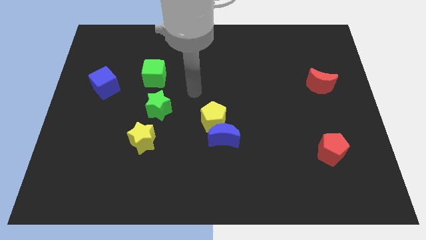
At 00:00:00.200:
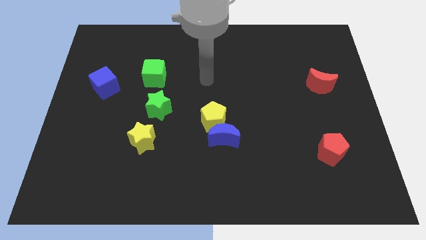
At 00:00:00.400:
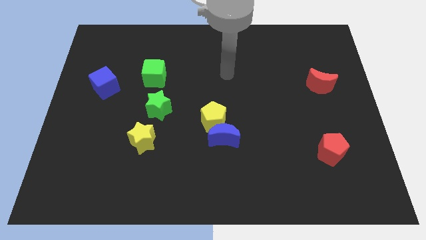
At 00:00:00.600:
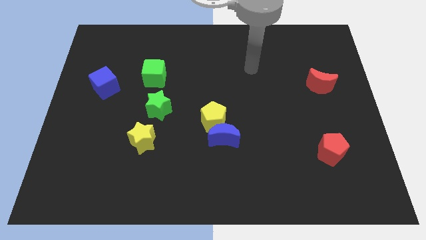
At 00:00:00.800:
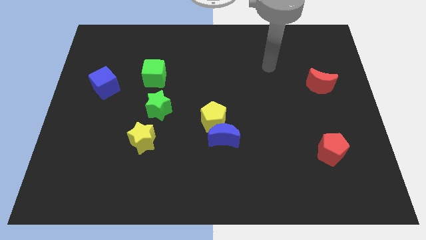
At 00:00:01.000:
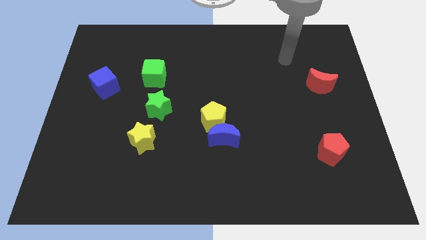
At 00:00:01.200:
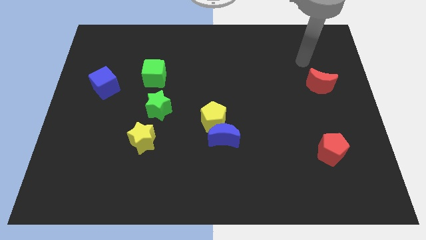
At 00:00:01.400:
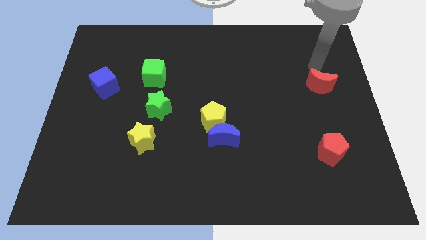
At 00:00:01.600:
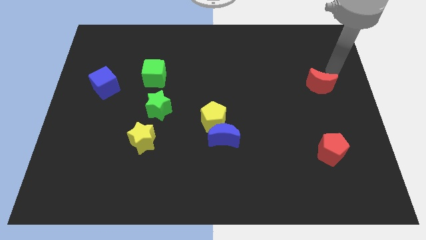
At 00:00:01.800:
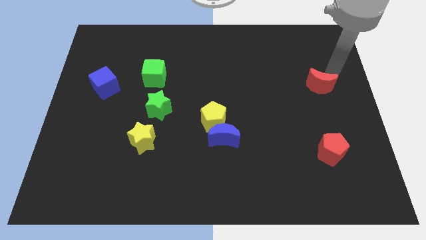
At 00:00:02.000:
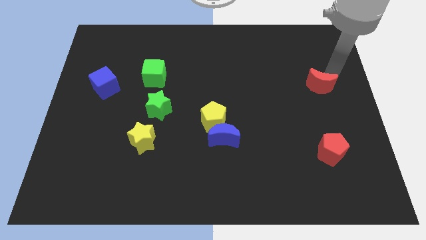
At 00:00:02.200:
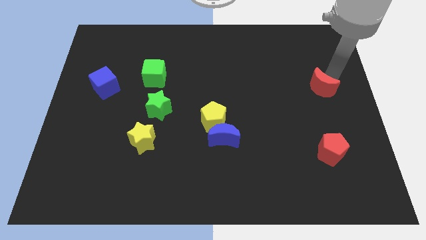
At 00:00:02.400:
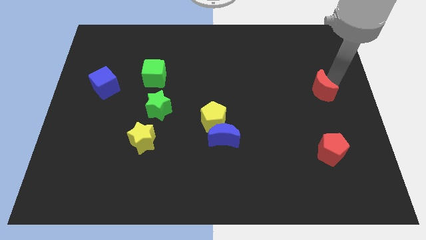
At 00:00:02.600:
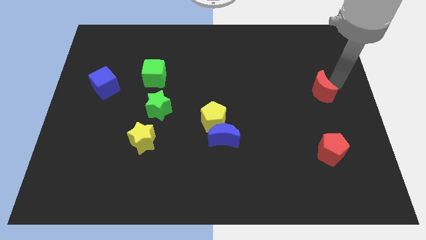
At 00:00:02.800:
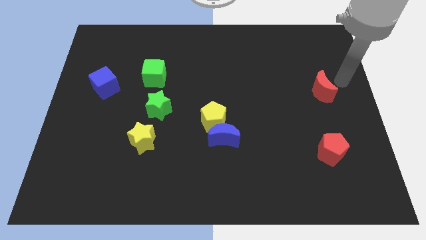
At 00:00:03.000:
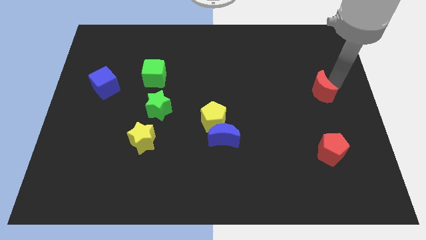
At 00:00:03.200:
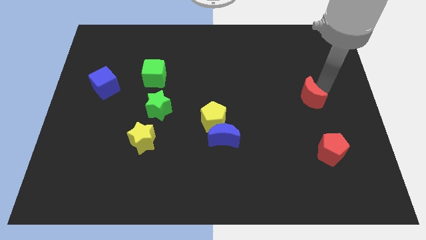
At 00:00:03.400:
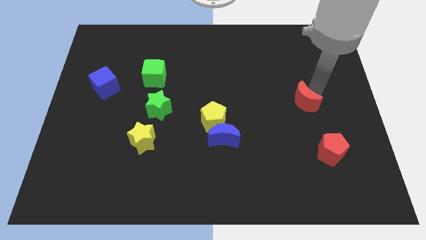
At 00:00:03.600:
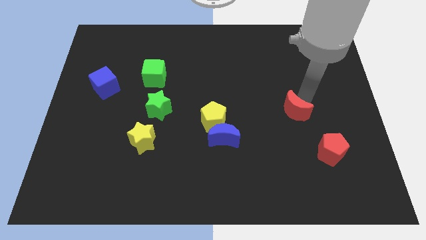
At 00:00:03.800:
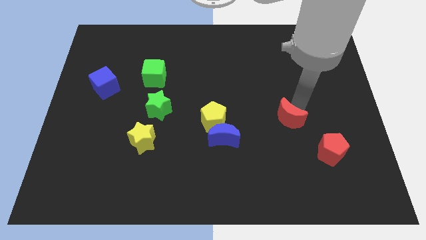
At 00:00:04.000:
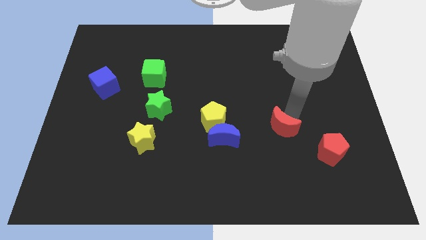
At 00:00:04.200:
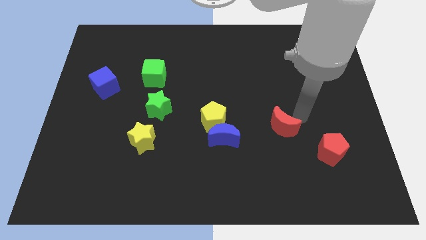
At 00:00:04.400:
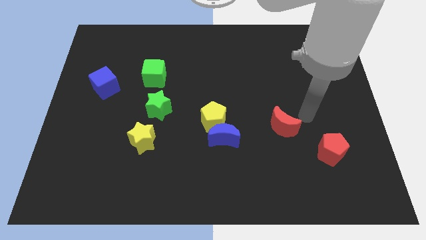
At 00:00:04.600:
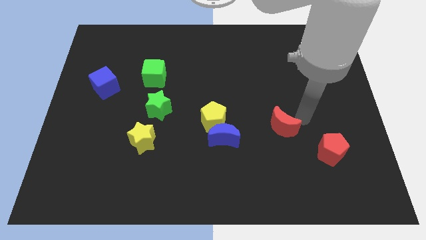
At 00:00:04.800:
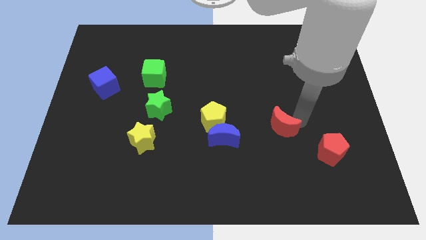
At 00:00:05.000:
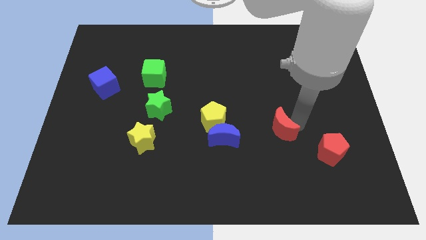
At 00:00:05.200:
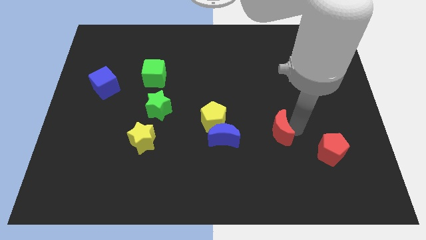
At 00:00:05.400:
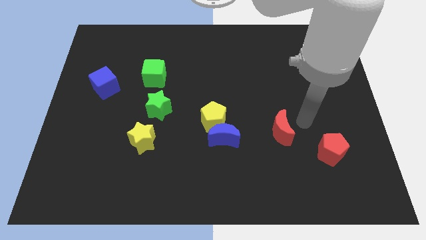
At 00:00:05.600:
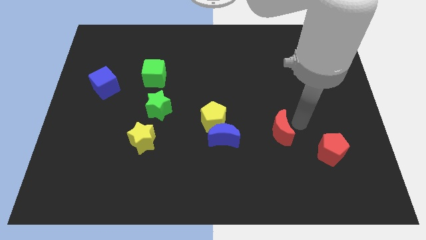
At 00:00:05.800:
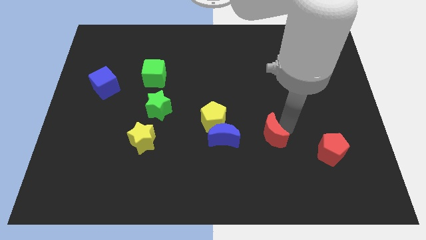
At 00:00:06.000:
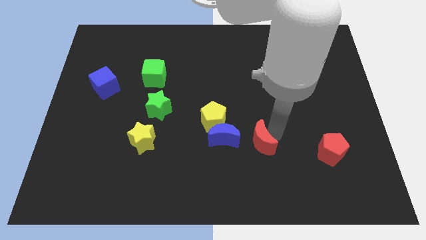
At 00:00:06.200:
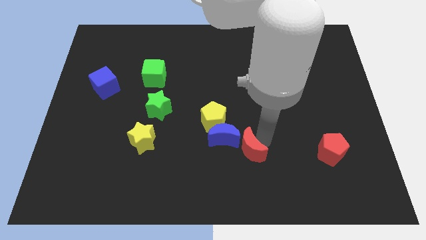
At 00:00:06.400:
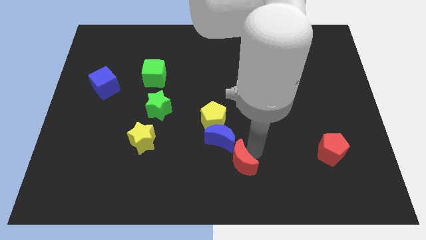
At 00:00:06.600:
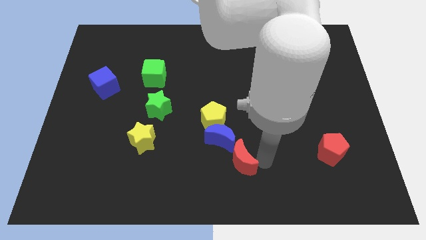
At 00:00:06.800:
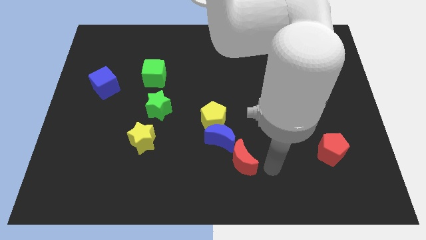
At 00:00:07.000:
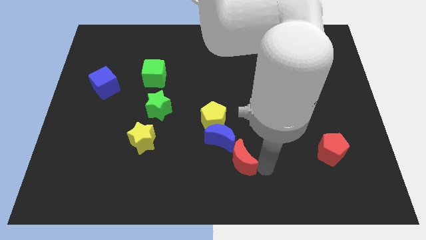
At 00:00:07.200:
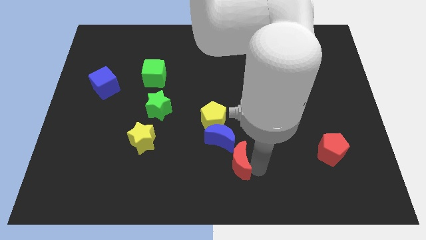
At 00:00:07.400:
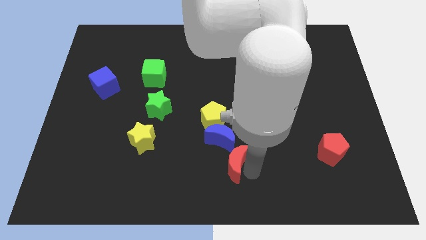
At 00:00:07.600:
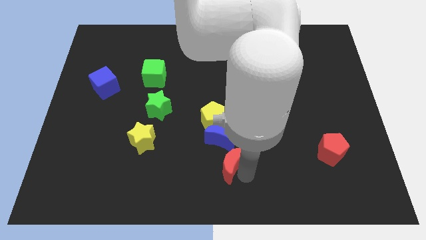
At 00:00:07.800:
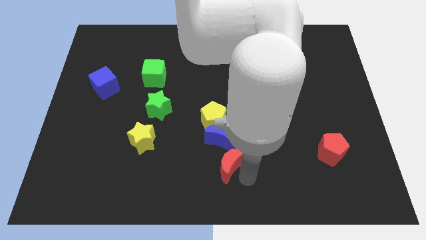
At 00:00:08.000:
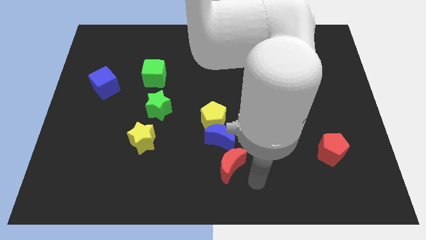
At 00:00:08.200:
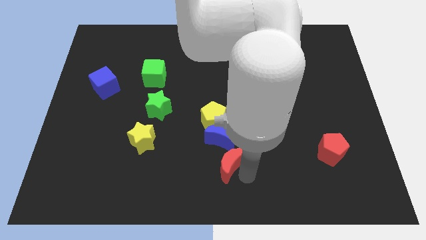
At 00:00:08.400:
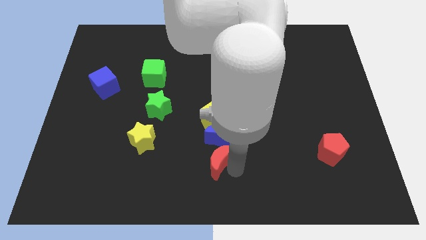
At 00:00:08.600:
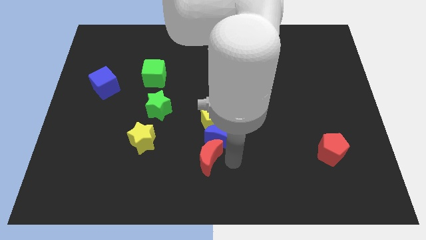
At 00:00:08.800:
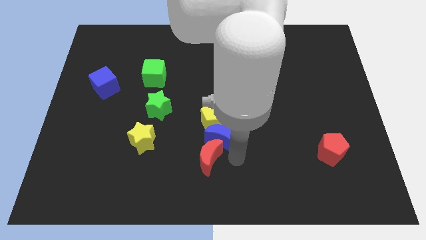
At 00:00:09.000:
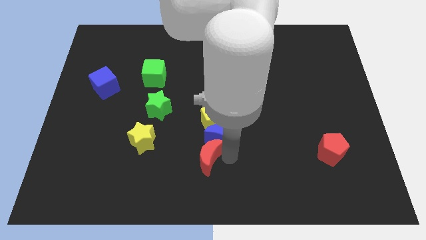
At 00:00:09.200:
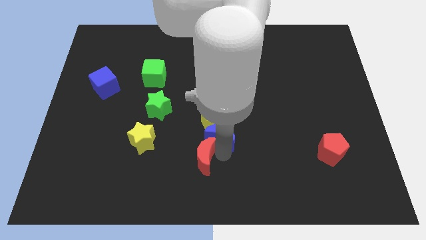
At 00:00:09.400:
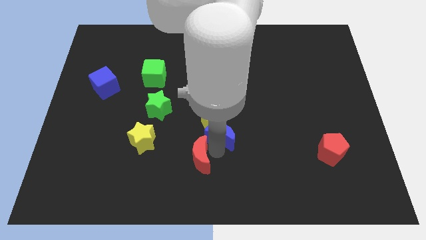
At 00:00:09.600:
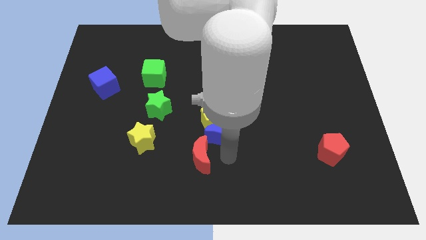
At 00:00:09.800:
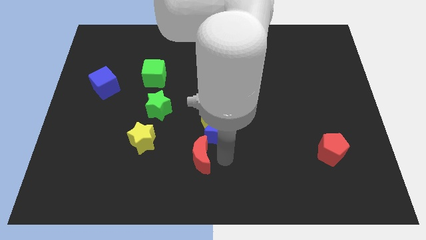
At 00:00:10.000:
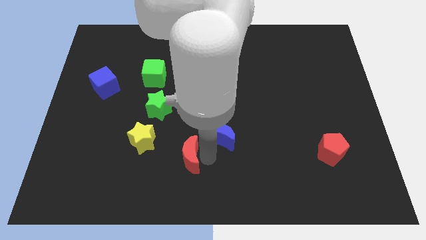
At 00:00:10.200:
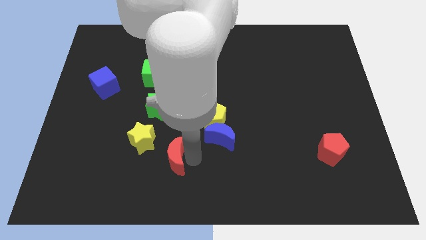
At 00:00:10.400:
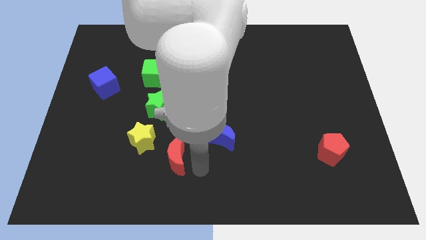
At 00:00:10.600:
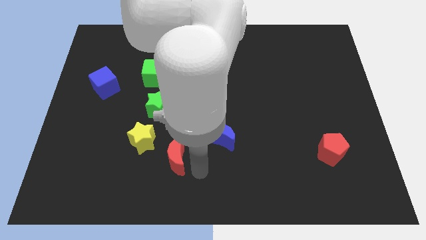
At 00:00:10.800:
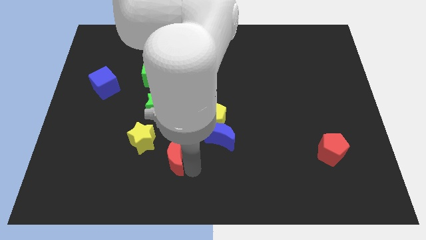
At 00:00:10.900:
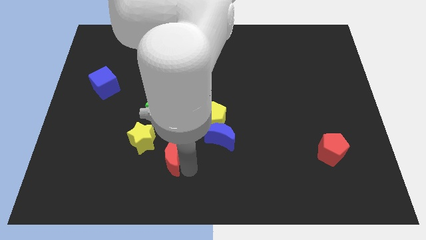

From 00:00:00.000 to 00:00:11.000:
move the red moon below the green star

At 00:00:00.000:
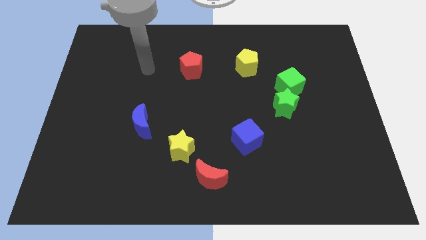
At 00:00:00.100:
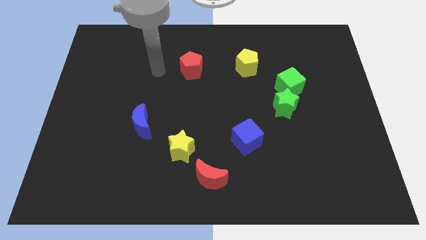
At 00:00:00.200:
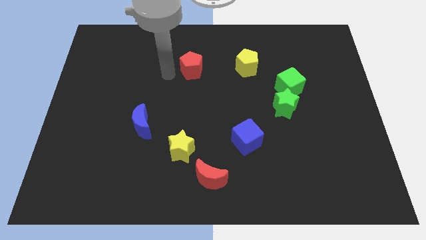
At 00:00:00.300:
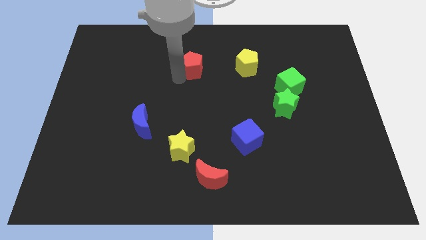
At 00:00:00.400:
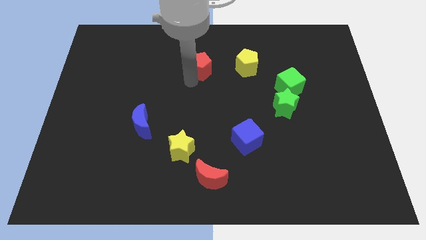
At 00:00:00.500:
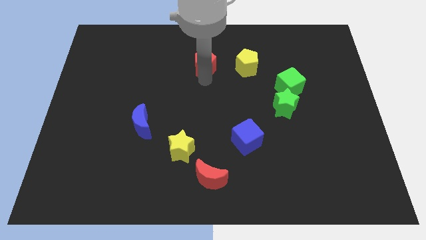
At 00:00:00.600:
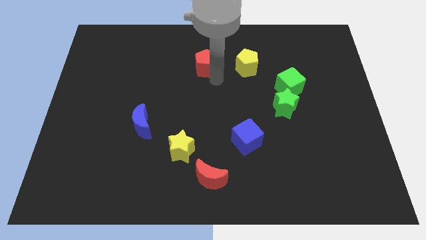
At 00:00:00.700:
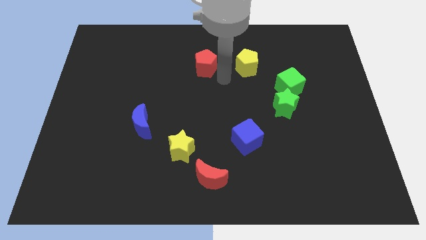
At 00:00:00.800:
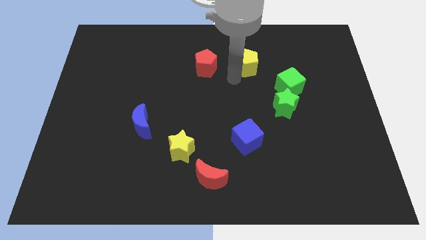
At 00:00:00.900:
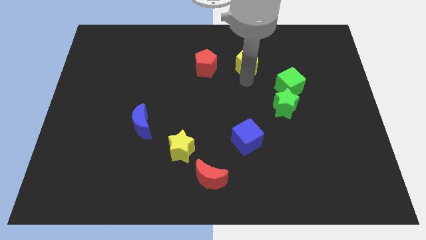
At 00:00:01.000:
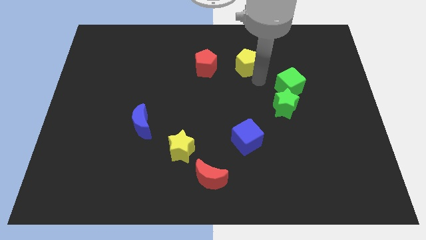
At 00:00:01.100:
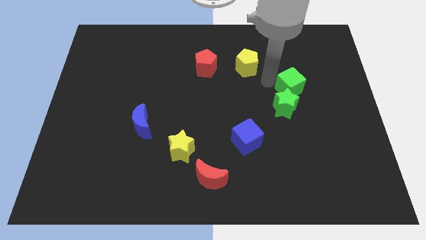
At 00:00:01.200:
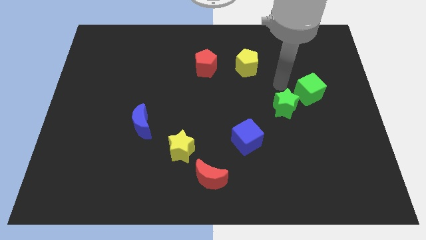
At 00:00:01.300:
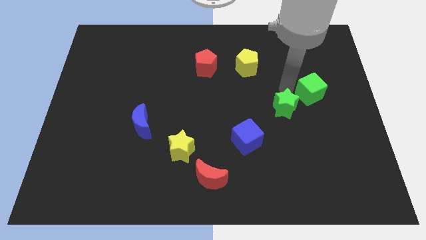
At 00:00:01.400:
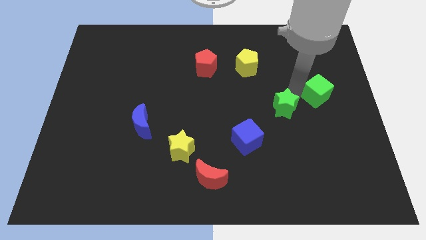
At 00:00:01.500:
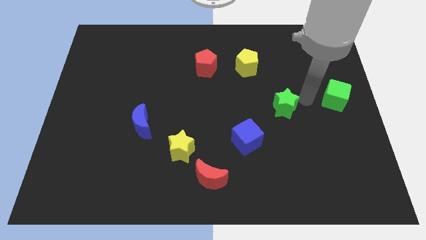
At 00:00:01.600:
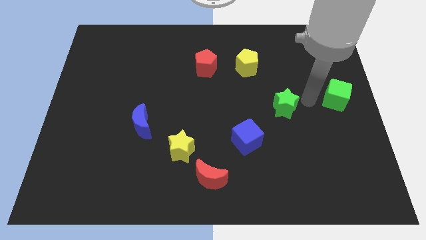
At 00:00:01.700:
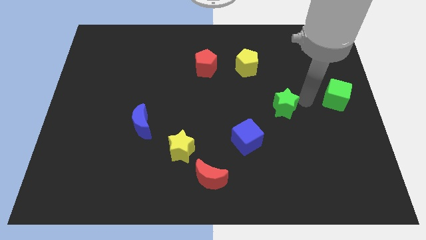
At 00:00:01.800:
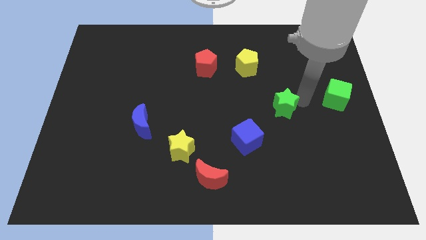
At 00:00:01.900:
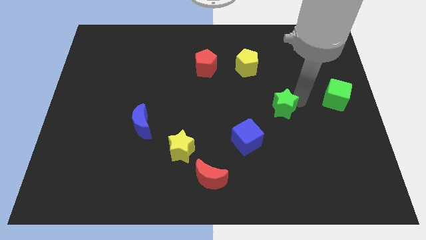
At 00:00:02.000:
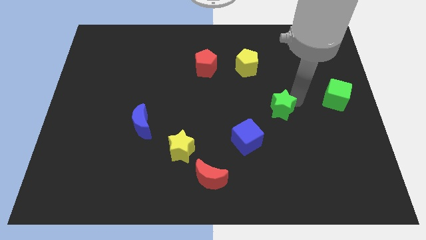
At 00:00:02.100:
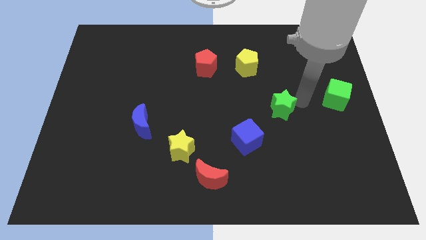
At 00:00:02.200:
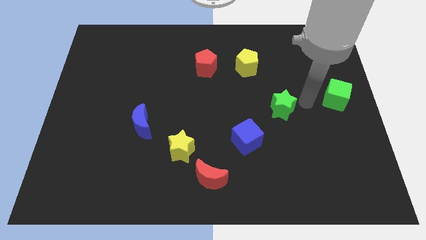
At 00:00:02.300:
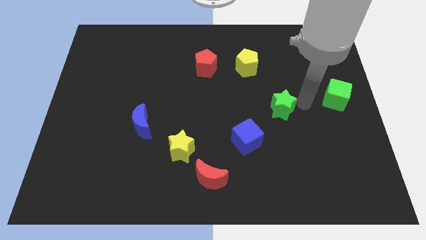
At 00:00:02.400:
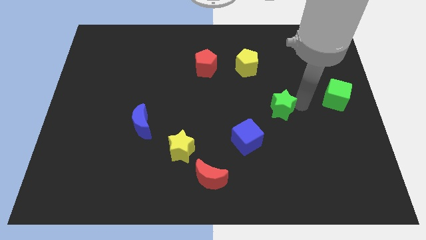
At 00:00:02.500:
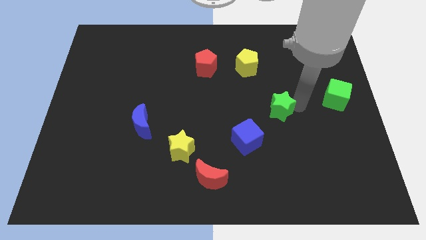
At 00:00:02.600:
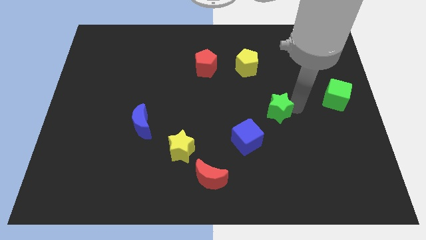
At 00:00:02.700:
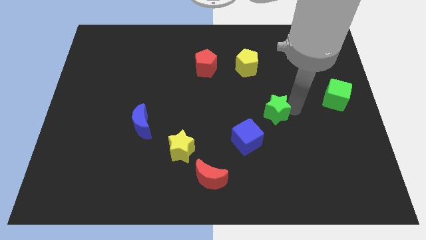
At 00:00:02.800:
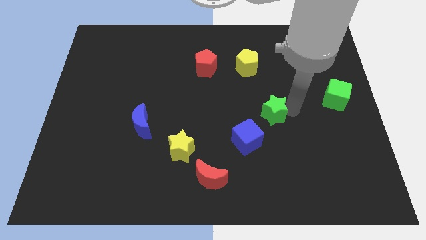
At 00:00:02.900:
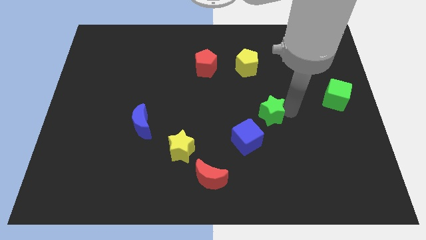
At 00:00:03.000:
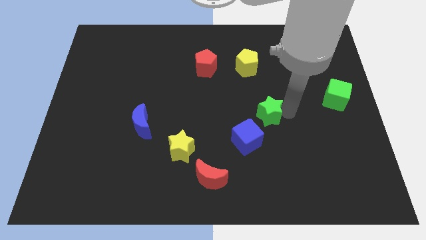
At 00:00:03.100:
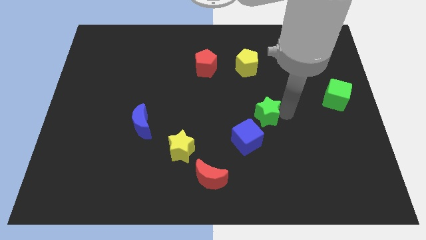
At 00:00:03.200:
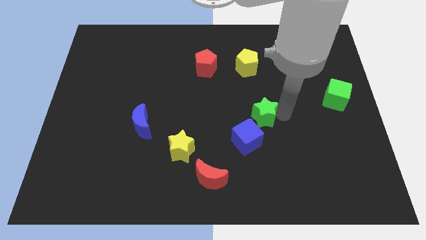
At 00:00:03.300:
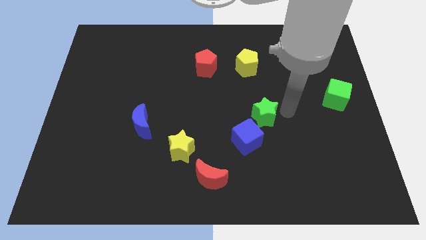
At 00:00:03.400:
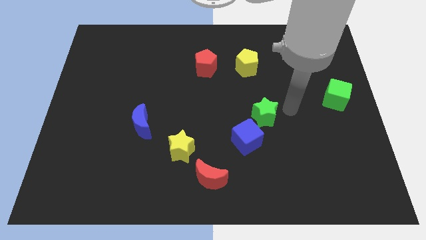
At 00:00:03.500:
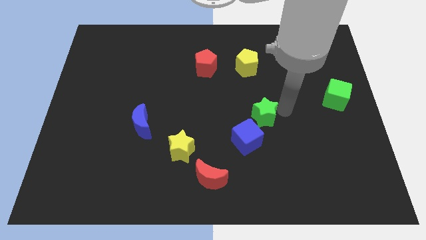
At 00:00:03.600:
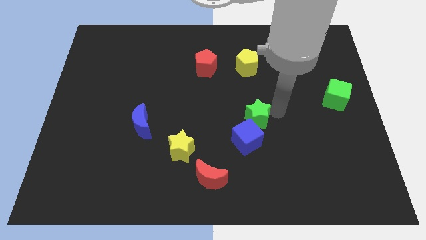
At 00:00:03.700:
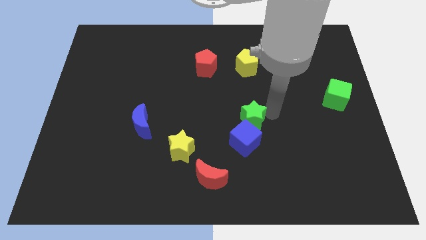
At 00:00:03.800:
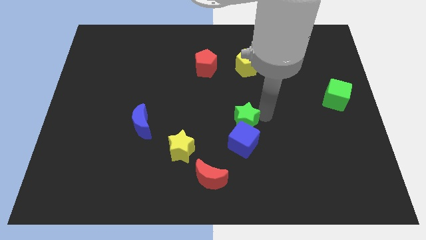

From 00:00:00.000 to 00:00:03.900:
slide the green star diagonally up and to the left of the blue cube
